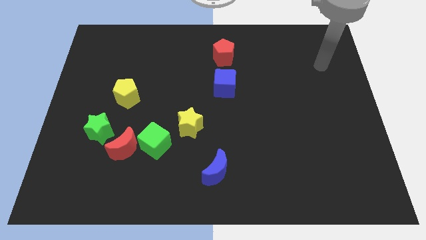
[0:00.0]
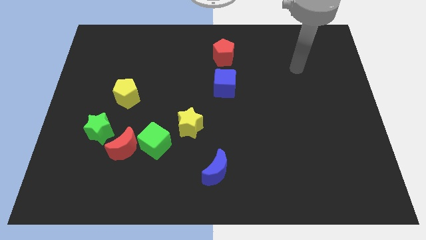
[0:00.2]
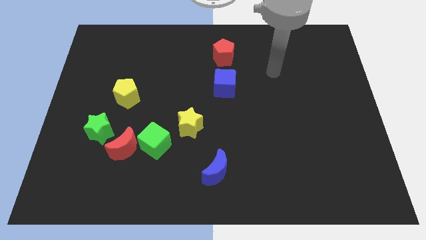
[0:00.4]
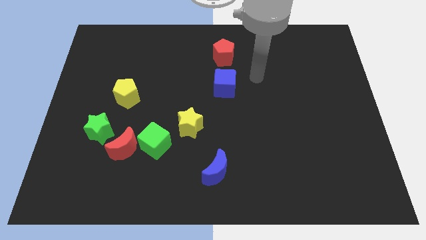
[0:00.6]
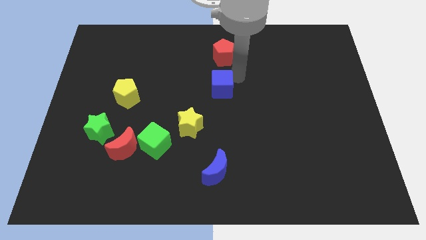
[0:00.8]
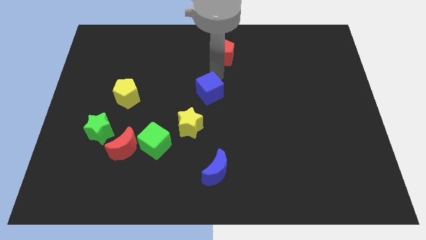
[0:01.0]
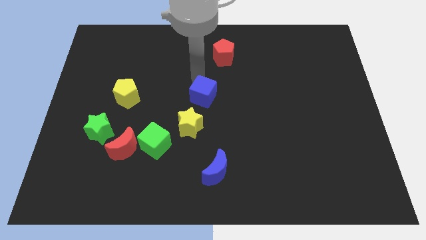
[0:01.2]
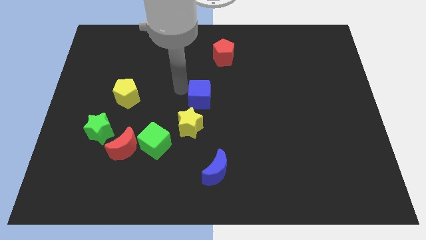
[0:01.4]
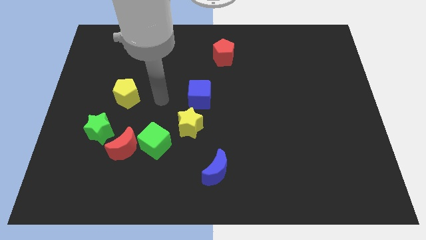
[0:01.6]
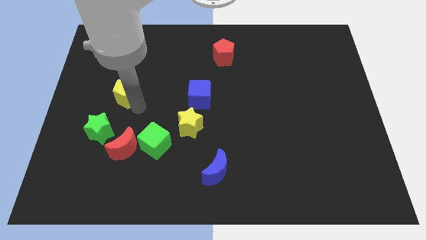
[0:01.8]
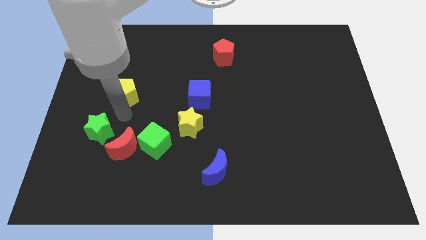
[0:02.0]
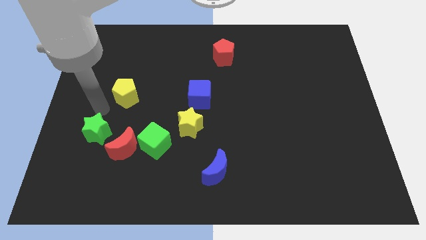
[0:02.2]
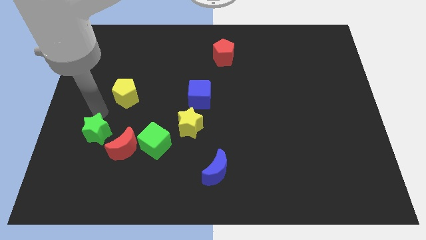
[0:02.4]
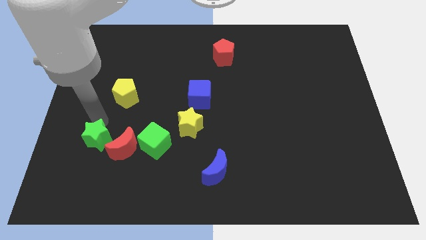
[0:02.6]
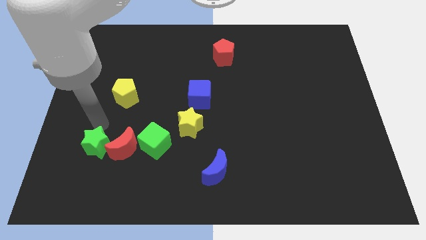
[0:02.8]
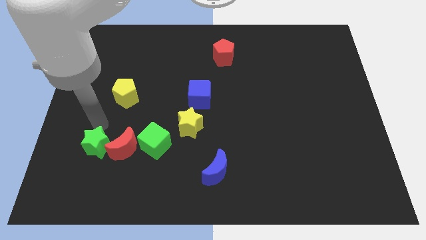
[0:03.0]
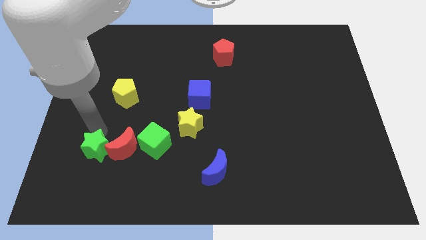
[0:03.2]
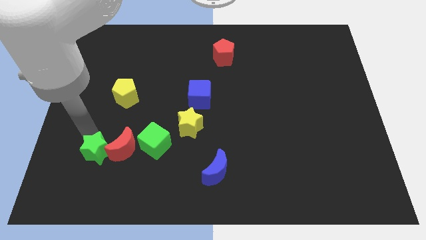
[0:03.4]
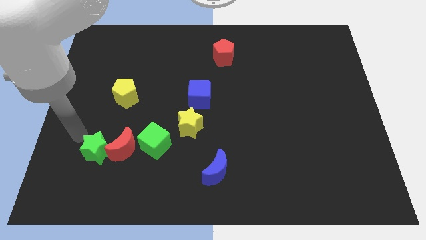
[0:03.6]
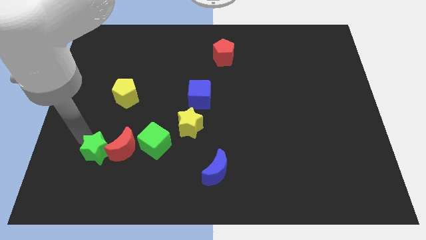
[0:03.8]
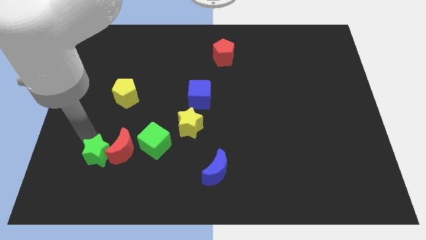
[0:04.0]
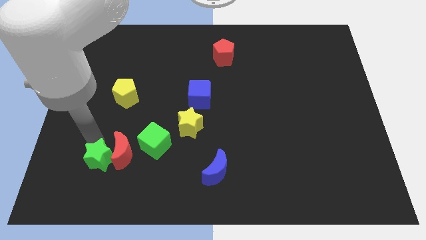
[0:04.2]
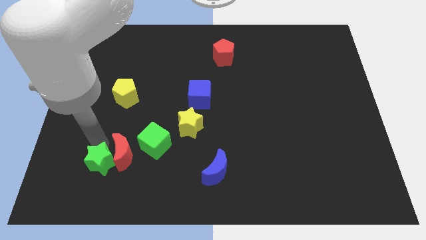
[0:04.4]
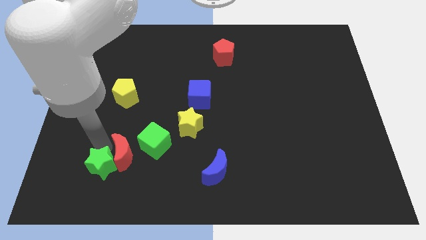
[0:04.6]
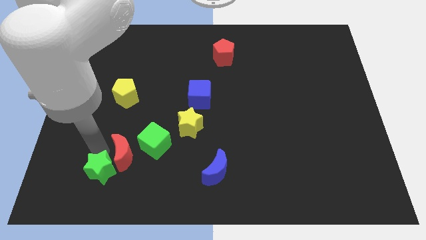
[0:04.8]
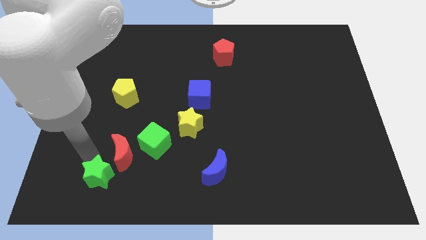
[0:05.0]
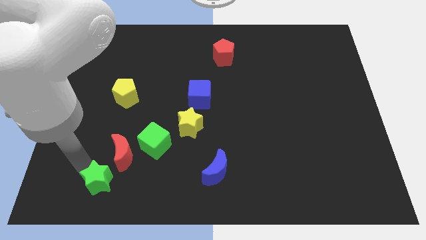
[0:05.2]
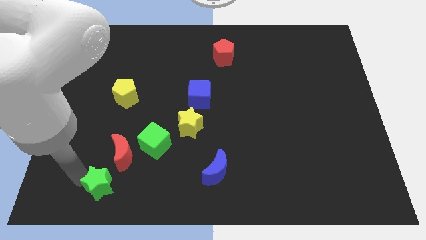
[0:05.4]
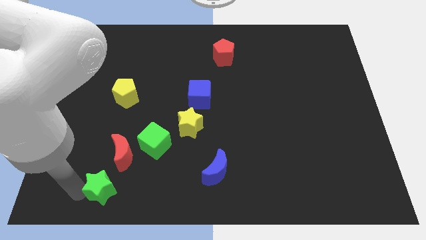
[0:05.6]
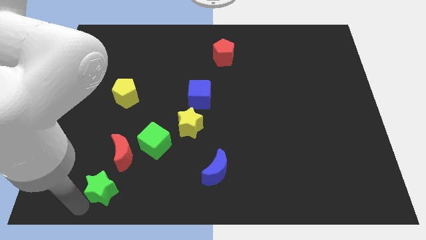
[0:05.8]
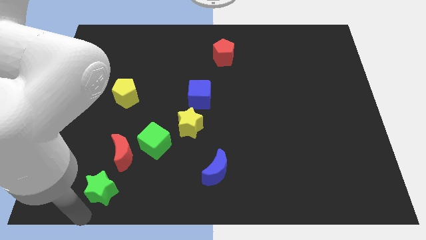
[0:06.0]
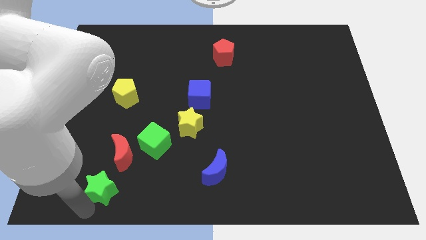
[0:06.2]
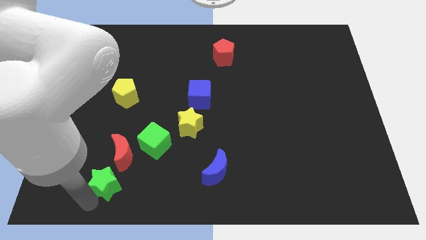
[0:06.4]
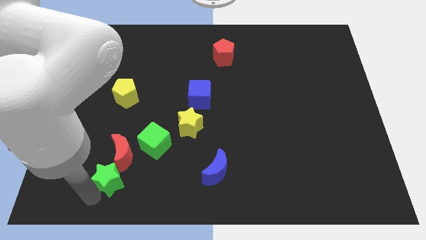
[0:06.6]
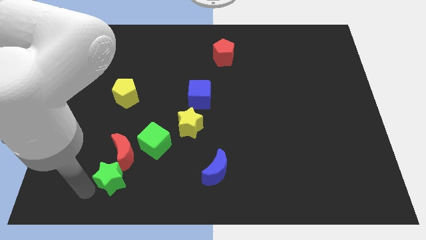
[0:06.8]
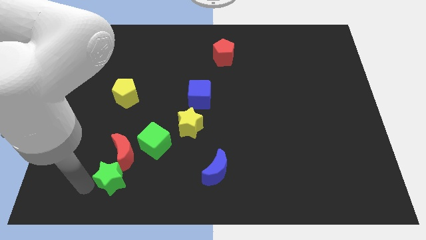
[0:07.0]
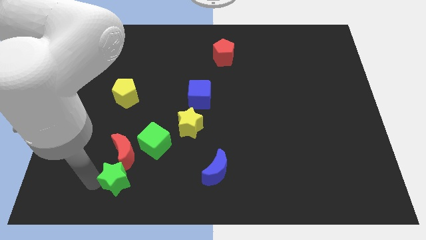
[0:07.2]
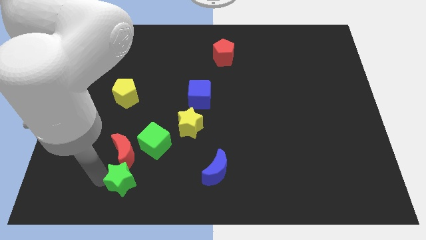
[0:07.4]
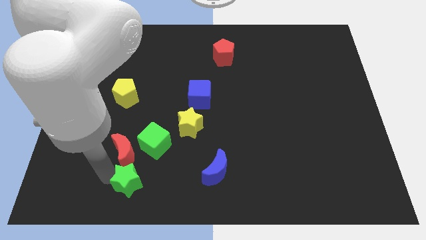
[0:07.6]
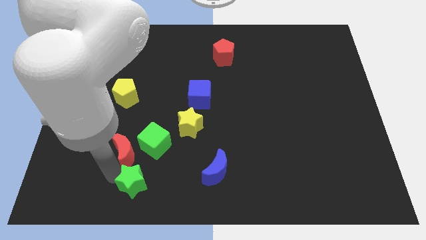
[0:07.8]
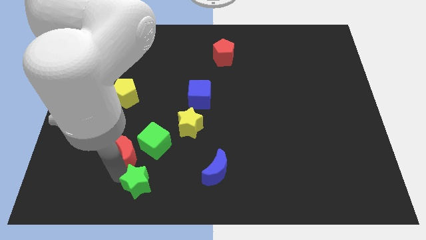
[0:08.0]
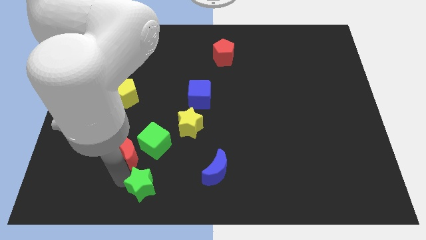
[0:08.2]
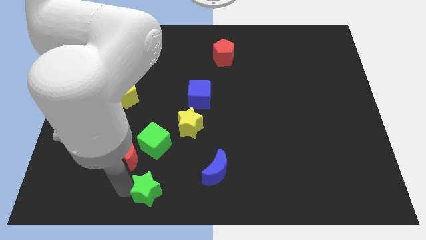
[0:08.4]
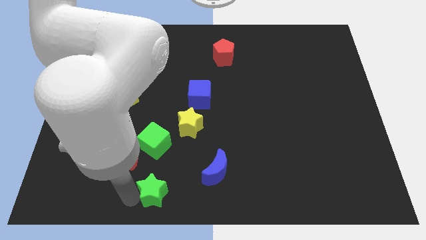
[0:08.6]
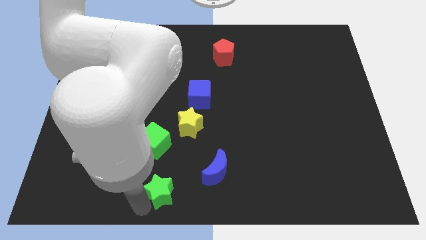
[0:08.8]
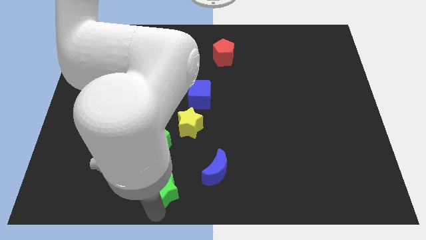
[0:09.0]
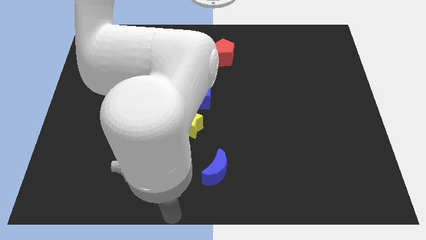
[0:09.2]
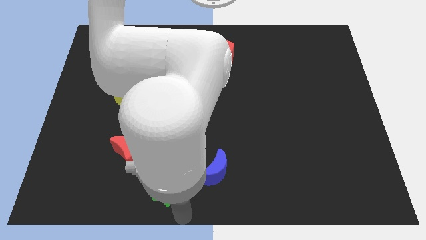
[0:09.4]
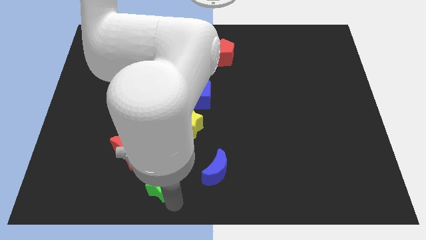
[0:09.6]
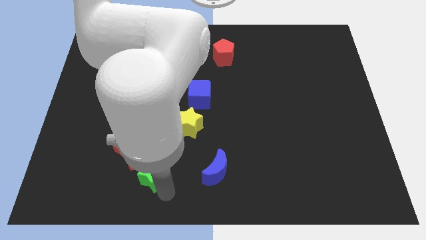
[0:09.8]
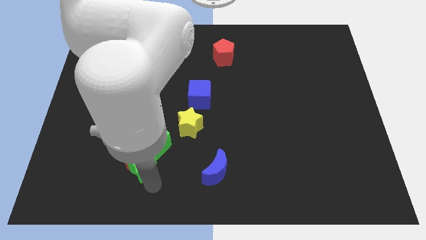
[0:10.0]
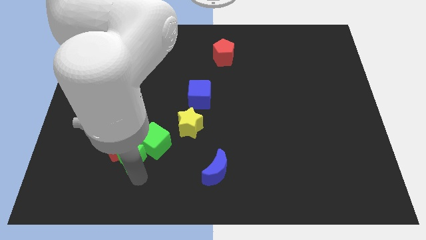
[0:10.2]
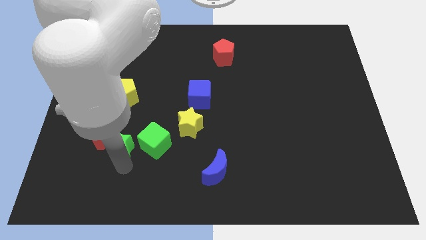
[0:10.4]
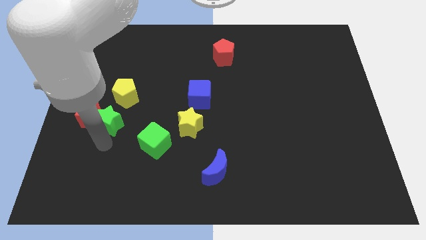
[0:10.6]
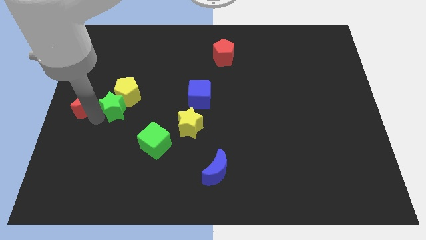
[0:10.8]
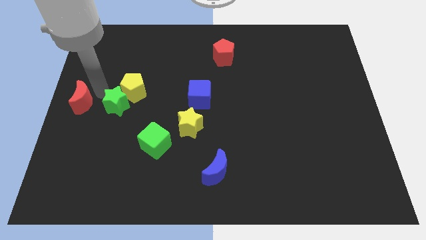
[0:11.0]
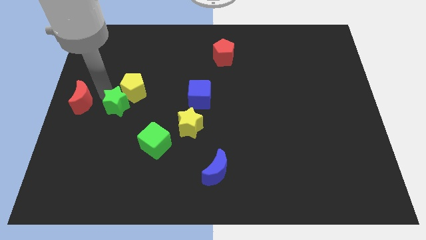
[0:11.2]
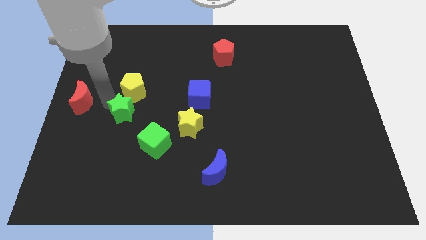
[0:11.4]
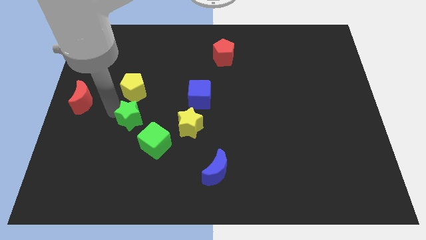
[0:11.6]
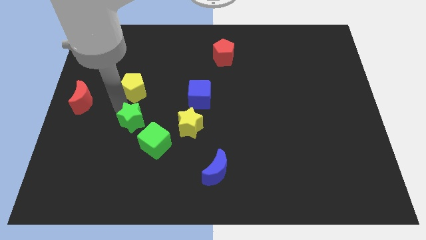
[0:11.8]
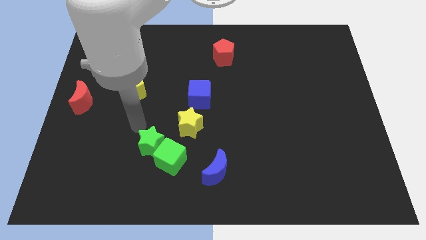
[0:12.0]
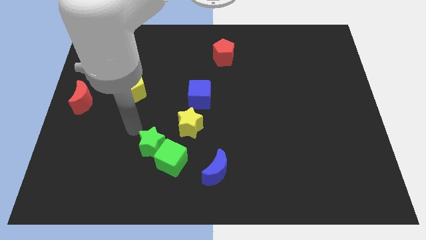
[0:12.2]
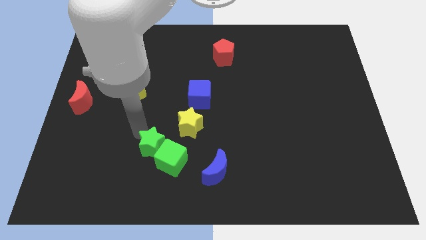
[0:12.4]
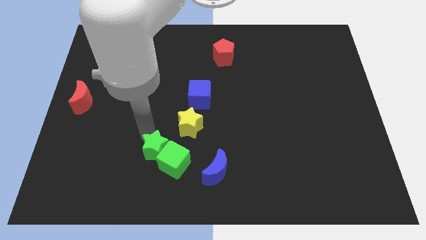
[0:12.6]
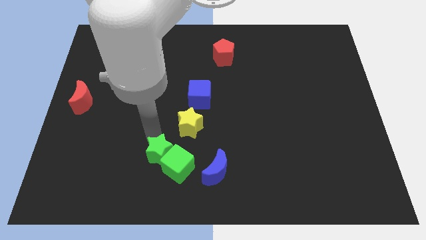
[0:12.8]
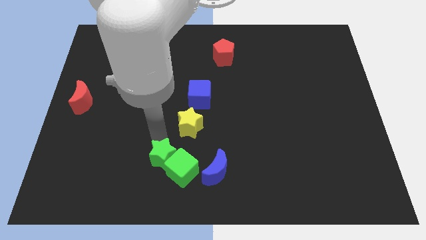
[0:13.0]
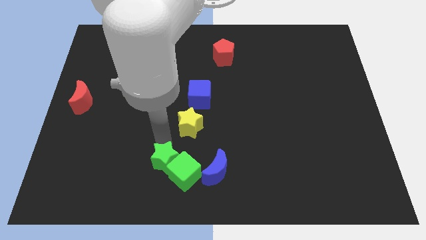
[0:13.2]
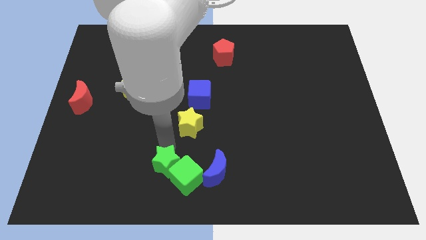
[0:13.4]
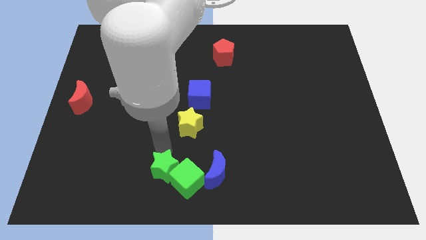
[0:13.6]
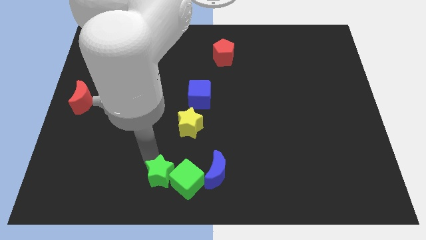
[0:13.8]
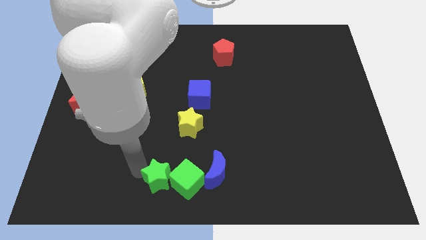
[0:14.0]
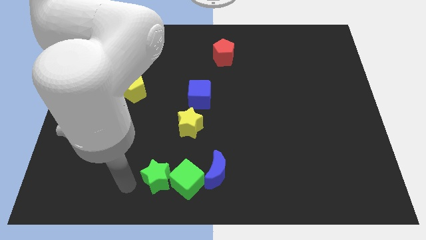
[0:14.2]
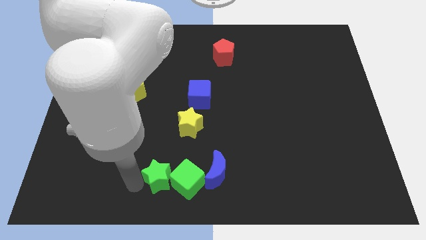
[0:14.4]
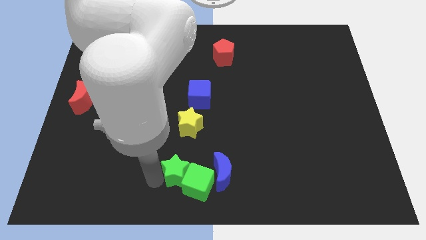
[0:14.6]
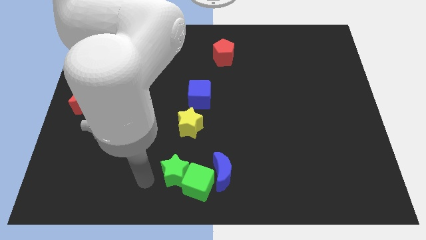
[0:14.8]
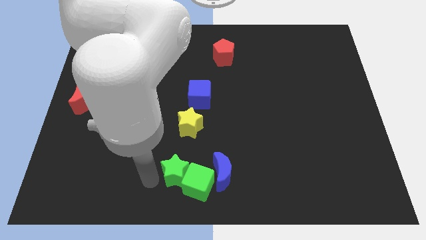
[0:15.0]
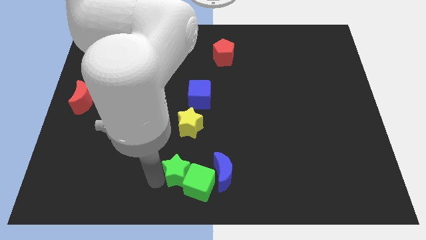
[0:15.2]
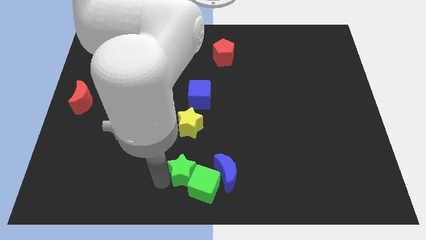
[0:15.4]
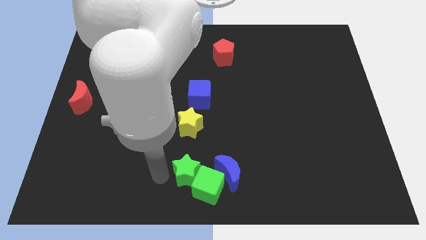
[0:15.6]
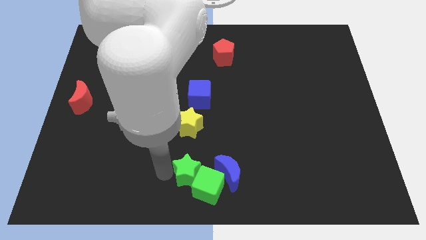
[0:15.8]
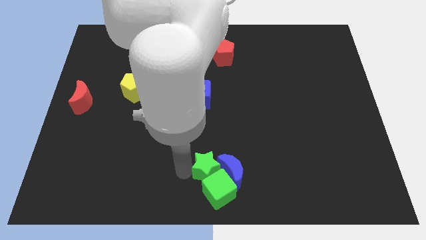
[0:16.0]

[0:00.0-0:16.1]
put the green star close to the blue moon
